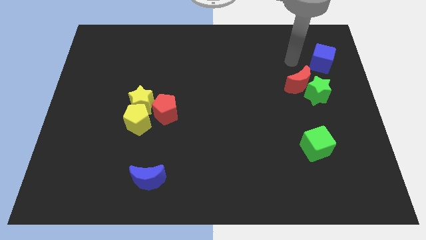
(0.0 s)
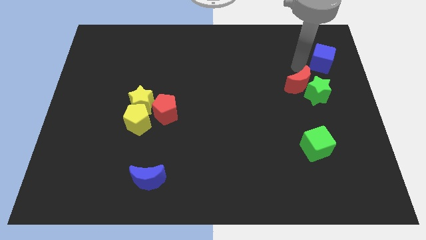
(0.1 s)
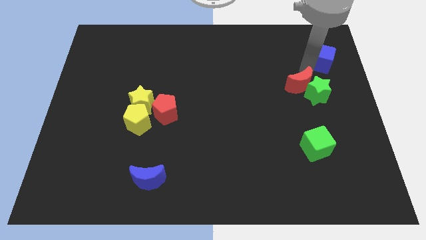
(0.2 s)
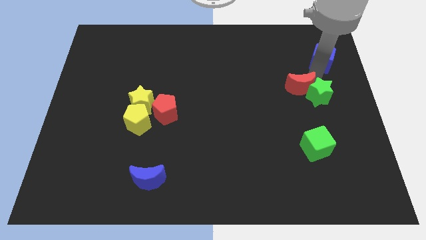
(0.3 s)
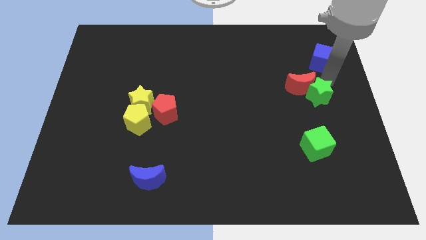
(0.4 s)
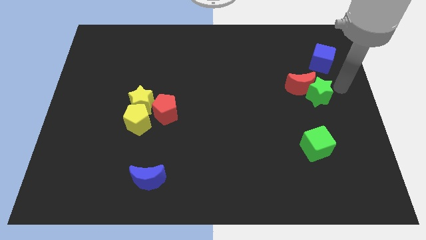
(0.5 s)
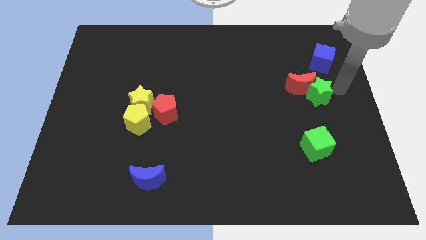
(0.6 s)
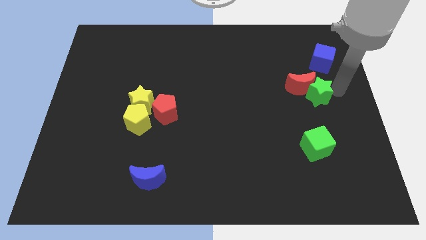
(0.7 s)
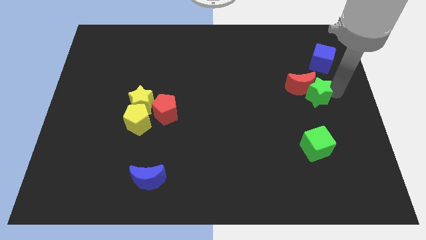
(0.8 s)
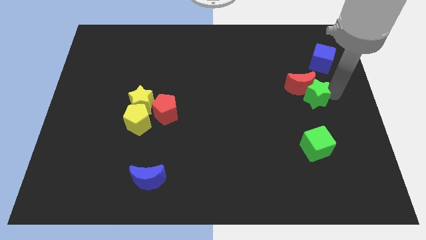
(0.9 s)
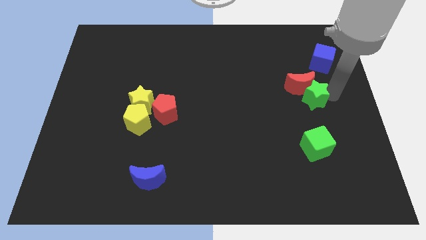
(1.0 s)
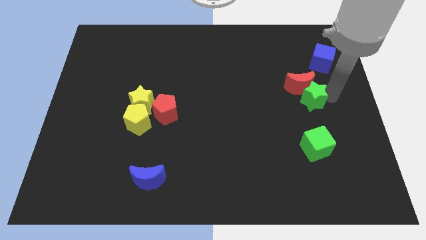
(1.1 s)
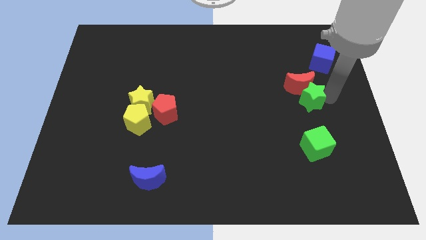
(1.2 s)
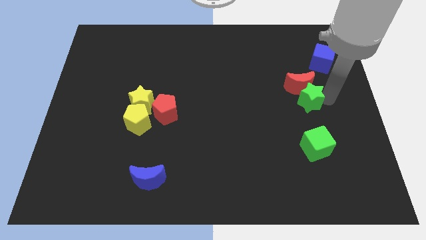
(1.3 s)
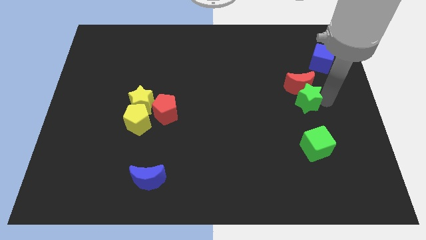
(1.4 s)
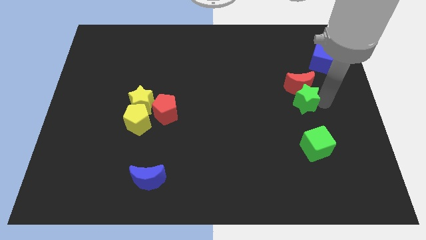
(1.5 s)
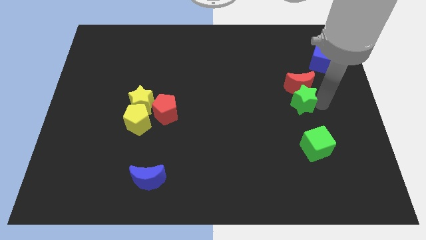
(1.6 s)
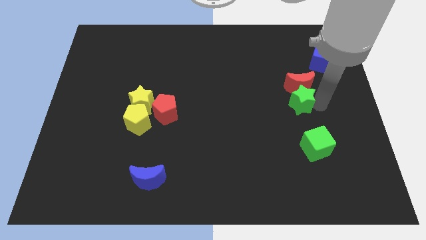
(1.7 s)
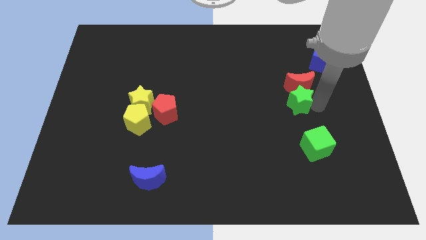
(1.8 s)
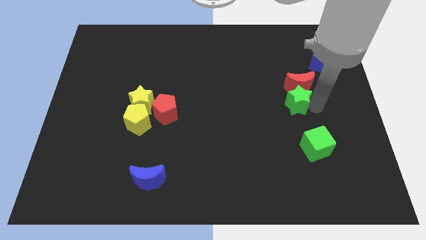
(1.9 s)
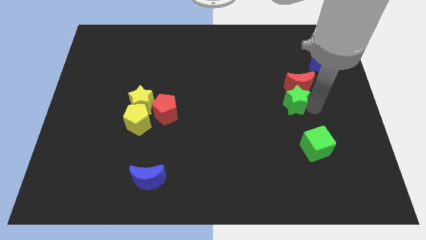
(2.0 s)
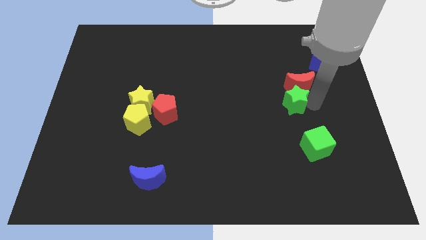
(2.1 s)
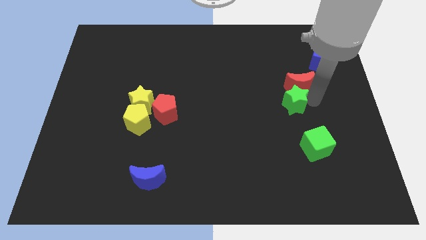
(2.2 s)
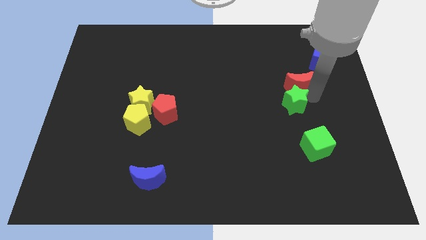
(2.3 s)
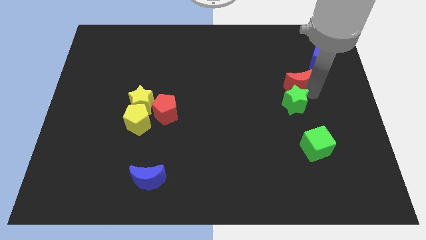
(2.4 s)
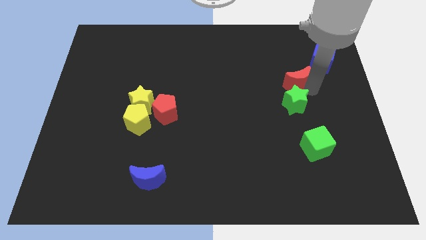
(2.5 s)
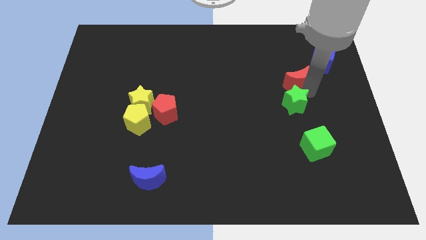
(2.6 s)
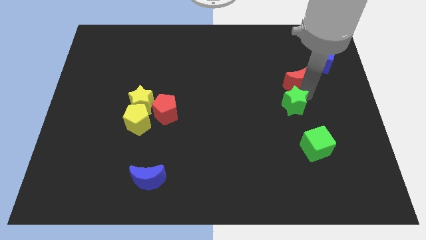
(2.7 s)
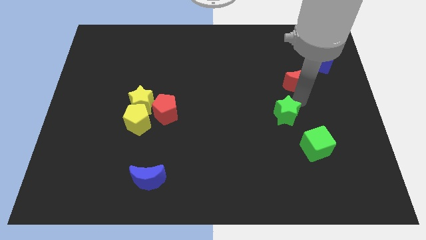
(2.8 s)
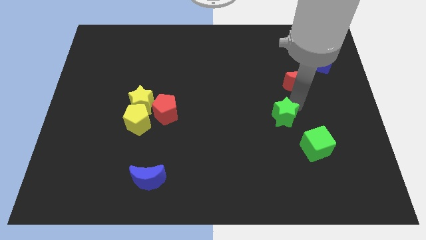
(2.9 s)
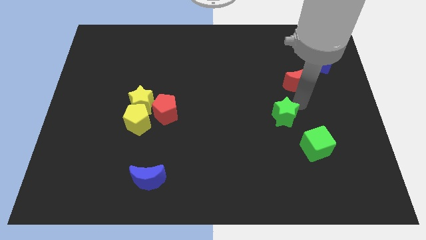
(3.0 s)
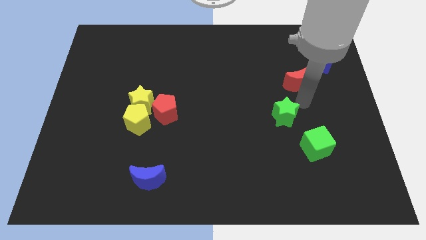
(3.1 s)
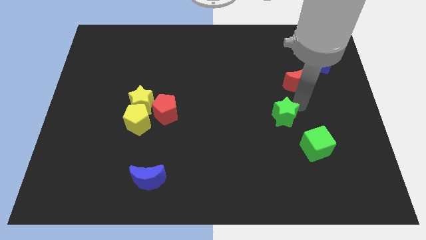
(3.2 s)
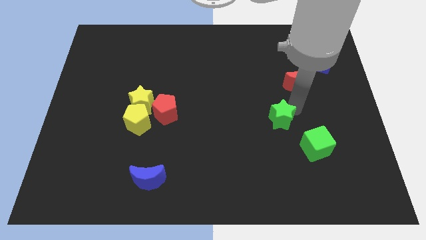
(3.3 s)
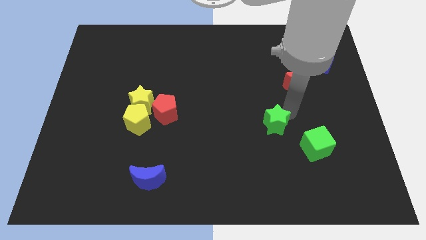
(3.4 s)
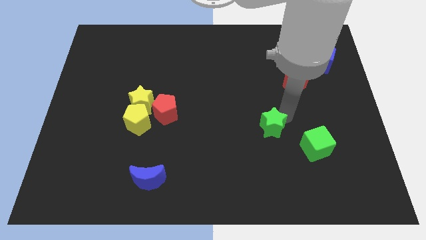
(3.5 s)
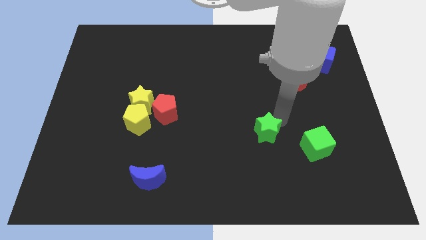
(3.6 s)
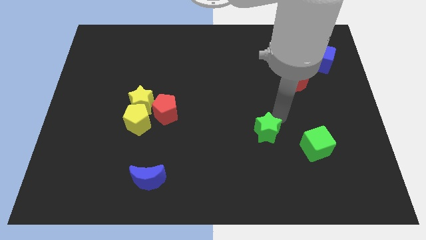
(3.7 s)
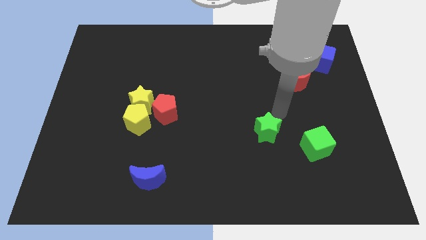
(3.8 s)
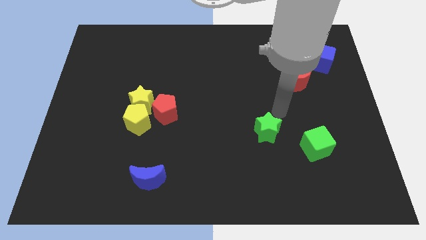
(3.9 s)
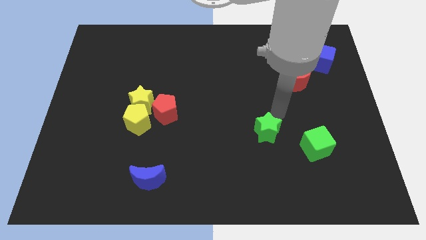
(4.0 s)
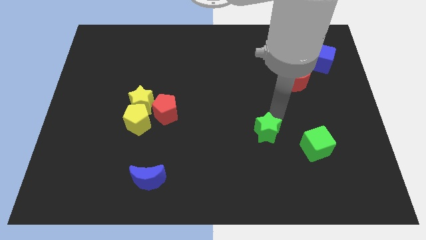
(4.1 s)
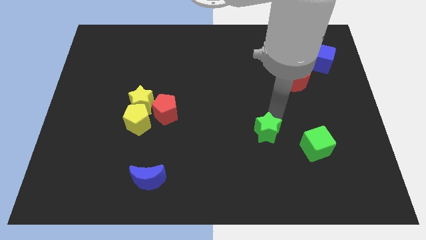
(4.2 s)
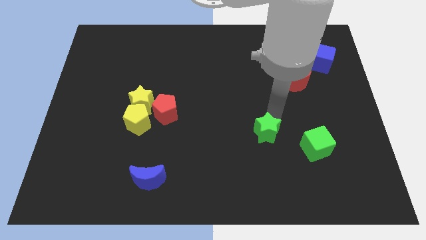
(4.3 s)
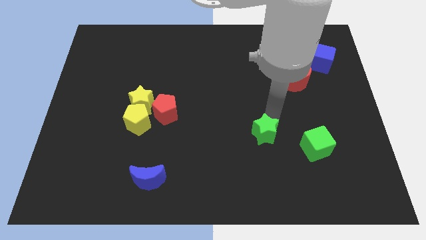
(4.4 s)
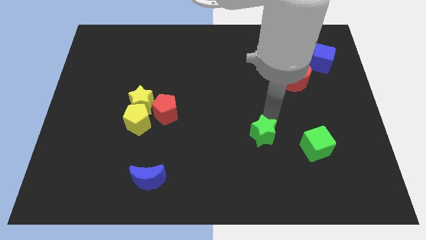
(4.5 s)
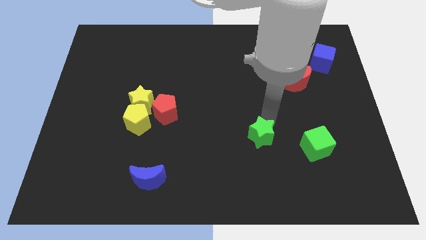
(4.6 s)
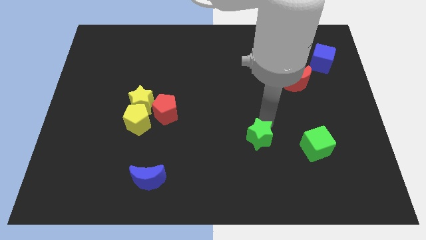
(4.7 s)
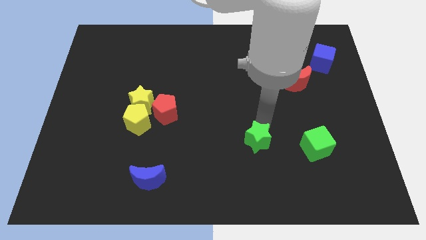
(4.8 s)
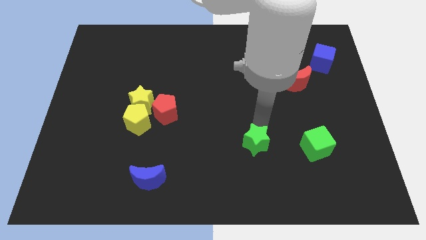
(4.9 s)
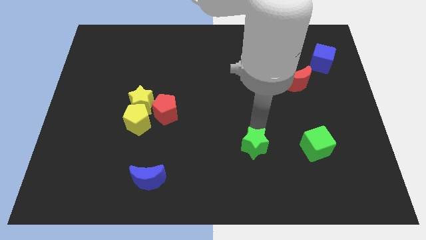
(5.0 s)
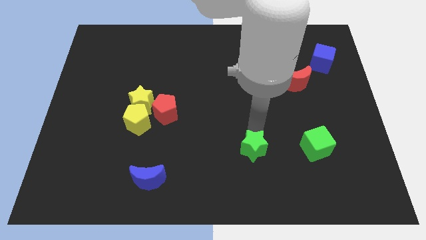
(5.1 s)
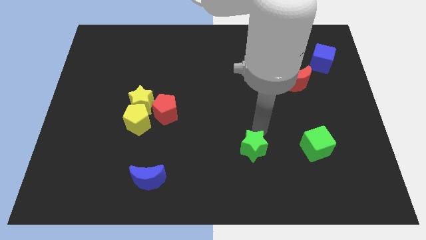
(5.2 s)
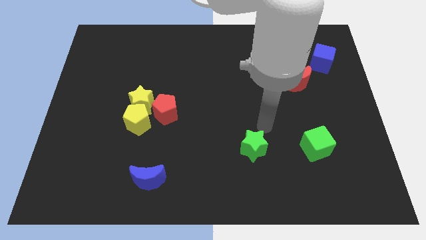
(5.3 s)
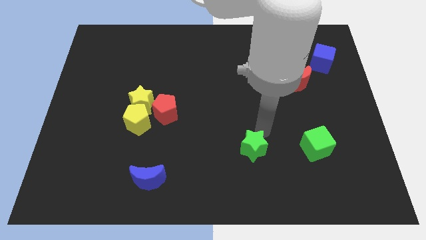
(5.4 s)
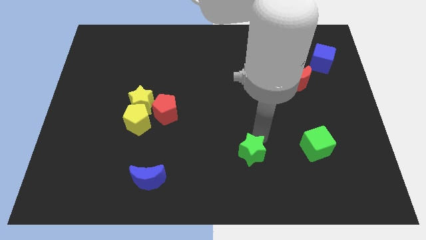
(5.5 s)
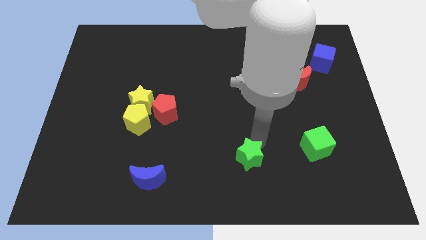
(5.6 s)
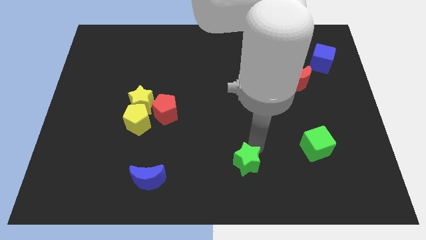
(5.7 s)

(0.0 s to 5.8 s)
move the green star to the bottom side

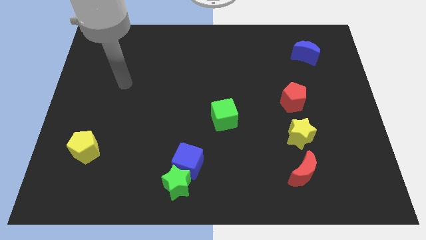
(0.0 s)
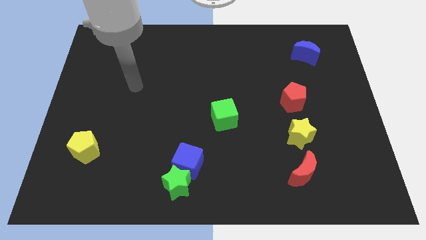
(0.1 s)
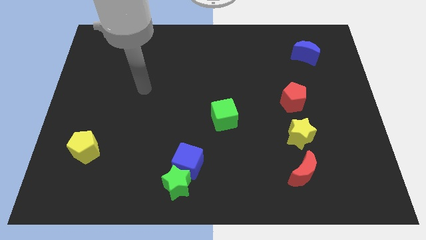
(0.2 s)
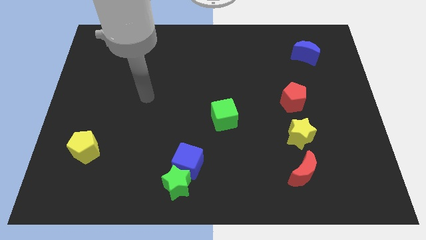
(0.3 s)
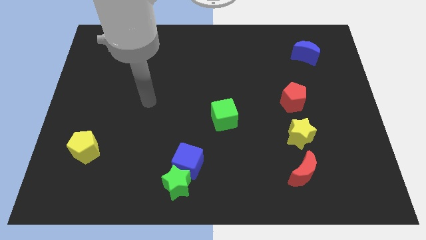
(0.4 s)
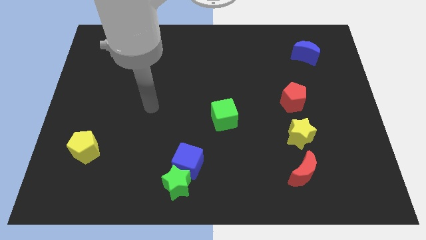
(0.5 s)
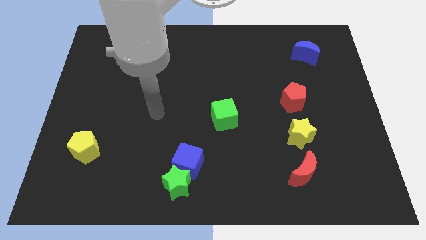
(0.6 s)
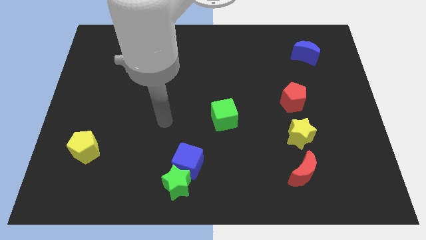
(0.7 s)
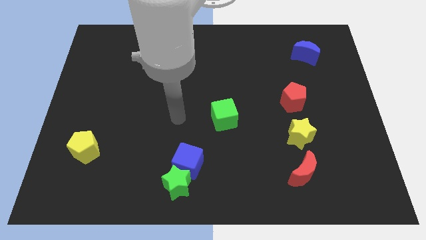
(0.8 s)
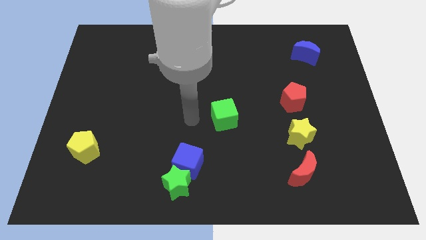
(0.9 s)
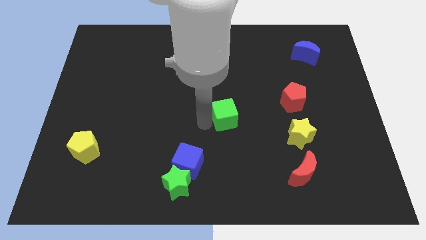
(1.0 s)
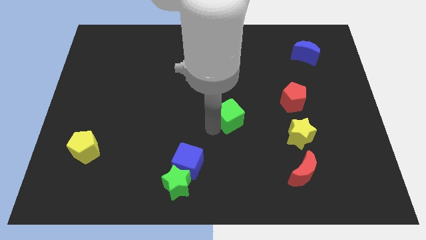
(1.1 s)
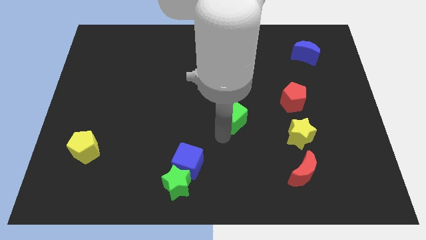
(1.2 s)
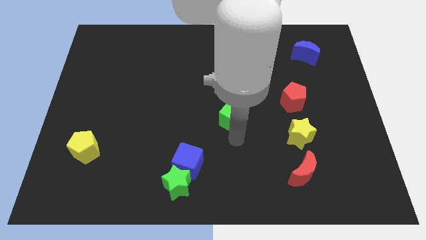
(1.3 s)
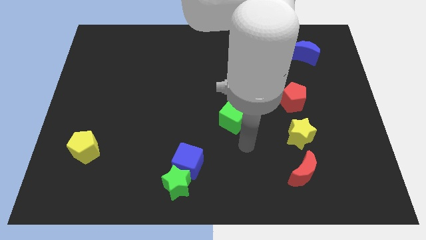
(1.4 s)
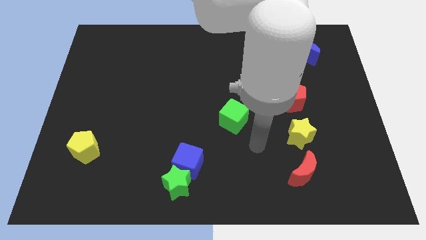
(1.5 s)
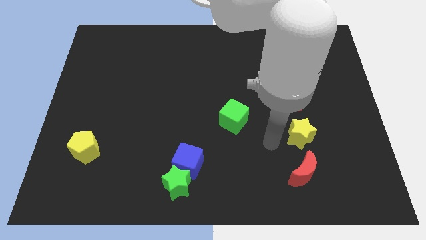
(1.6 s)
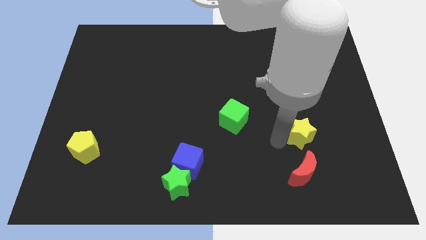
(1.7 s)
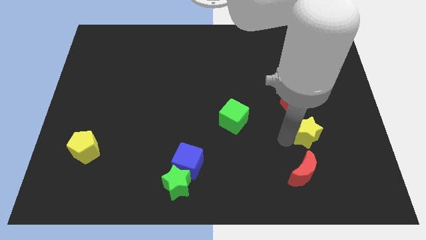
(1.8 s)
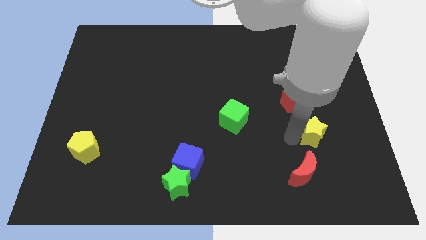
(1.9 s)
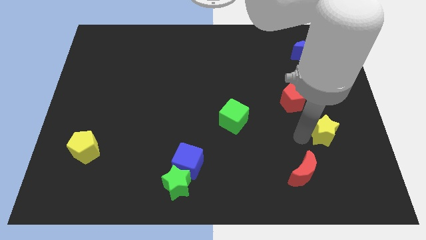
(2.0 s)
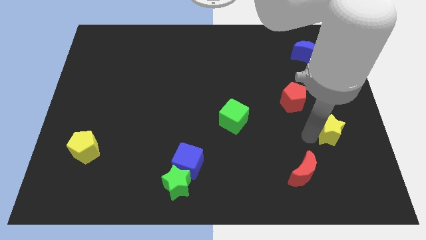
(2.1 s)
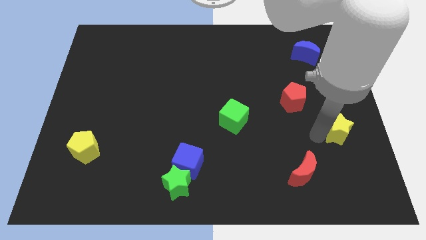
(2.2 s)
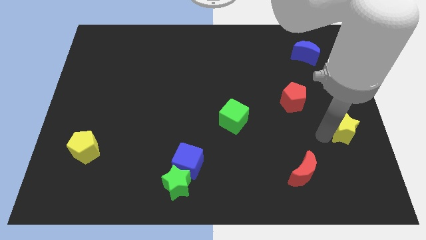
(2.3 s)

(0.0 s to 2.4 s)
slide the yellow star to the right side
